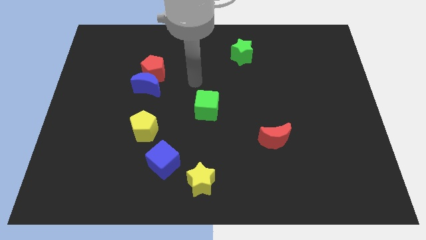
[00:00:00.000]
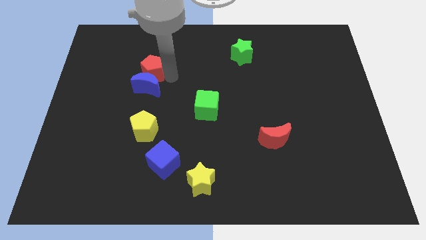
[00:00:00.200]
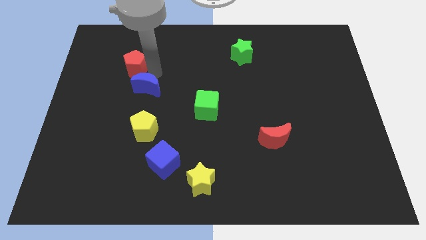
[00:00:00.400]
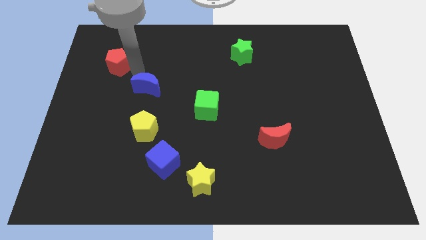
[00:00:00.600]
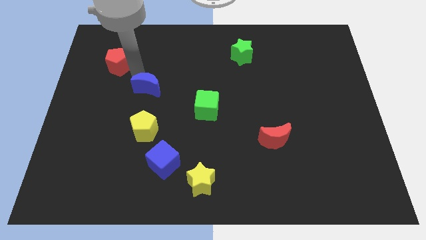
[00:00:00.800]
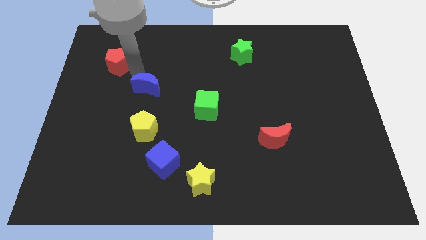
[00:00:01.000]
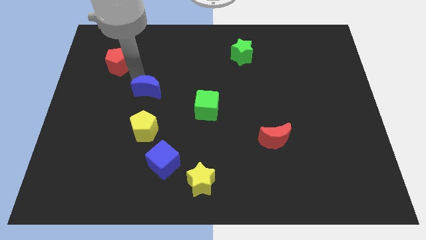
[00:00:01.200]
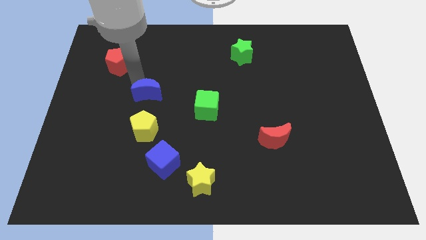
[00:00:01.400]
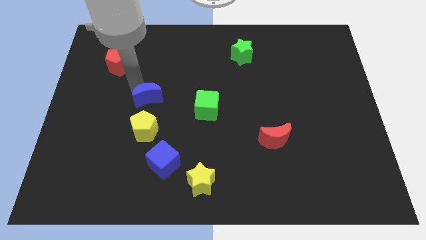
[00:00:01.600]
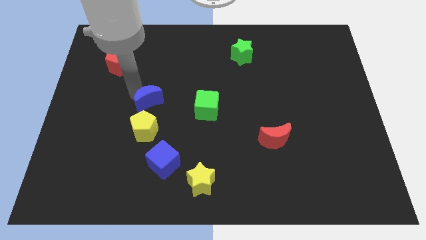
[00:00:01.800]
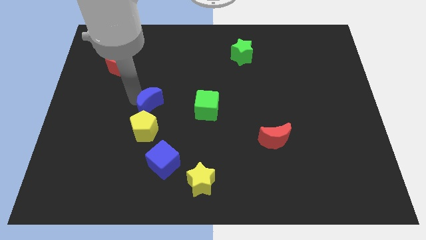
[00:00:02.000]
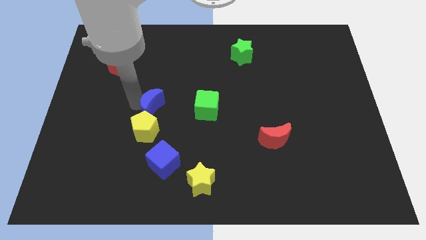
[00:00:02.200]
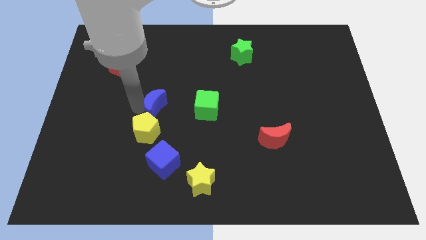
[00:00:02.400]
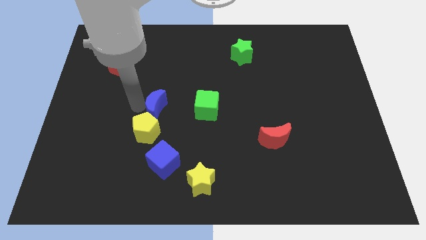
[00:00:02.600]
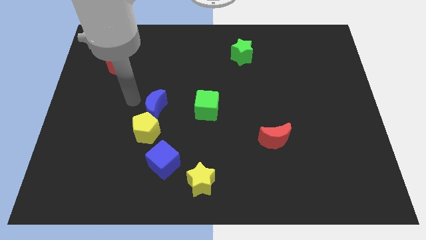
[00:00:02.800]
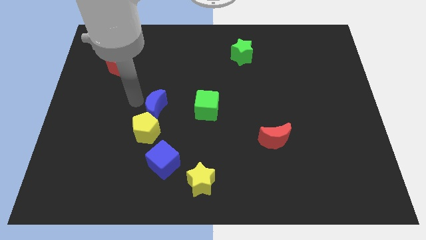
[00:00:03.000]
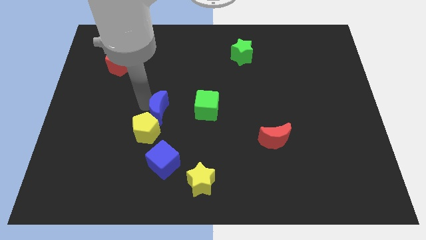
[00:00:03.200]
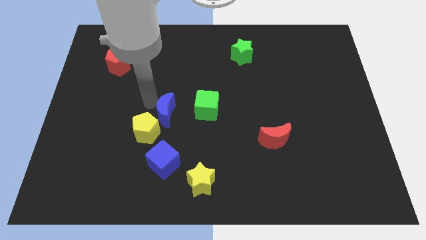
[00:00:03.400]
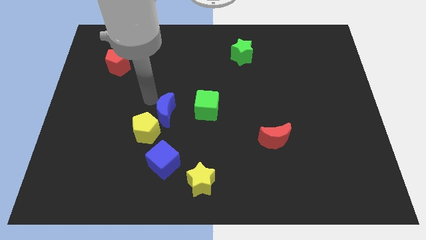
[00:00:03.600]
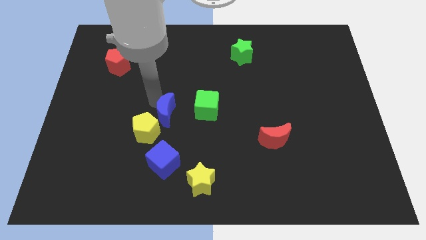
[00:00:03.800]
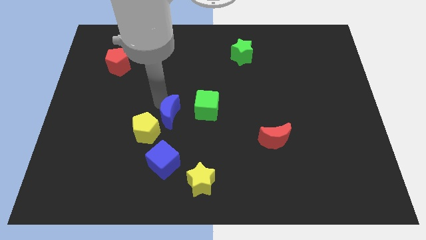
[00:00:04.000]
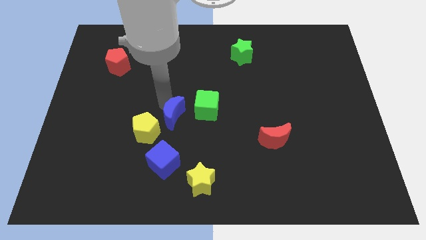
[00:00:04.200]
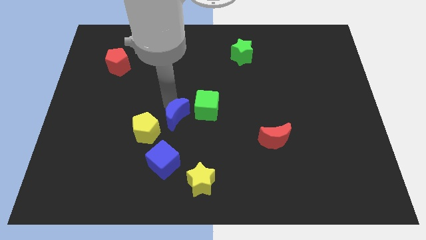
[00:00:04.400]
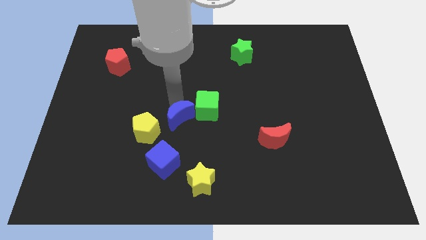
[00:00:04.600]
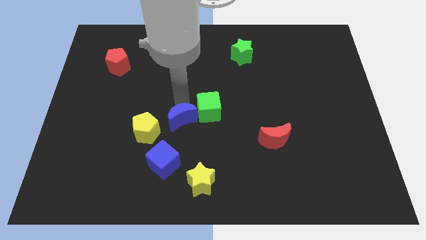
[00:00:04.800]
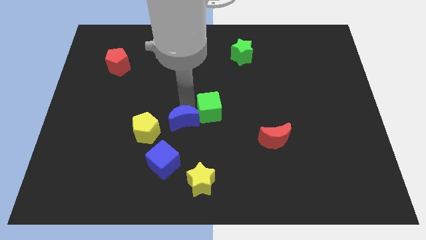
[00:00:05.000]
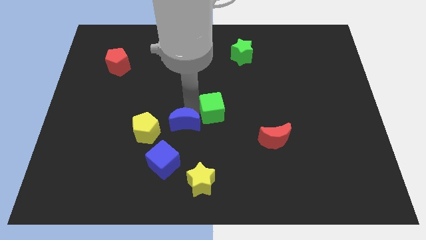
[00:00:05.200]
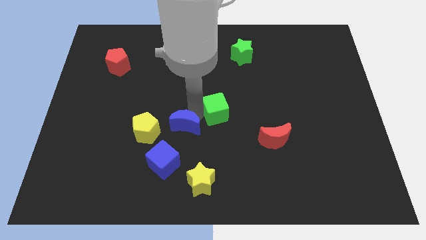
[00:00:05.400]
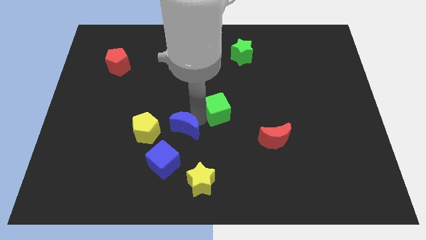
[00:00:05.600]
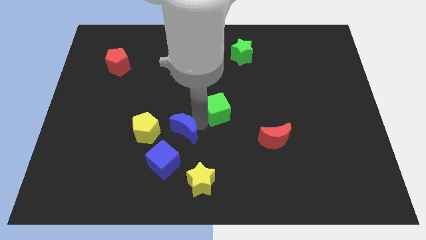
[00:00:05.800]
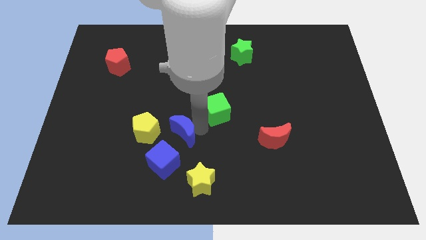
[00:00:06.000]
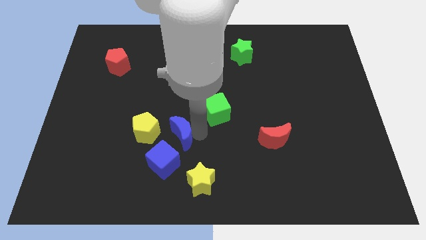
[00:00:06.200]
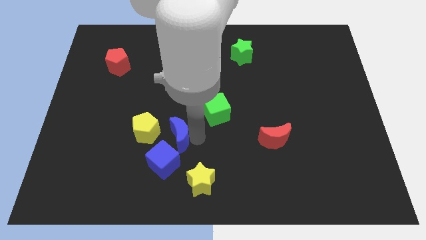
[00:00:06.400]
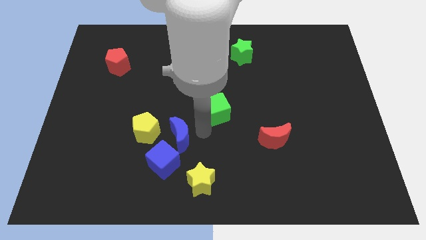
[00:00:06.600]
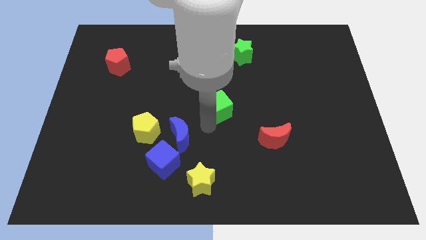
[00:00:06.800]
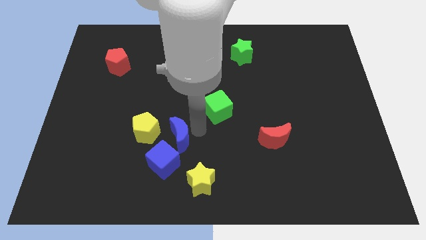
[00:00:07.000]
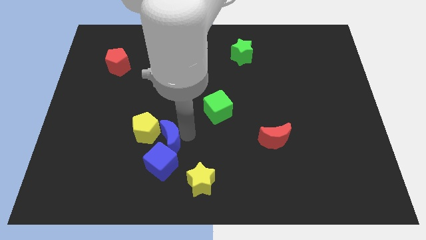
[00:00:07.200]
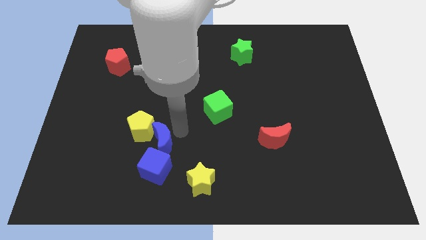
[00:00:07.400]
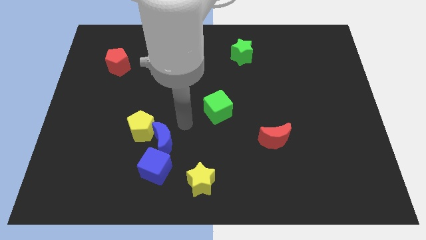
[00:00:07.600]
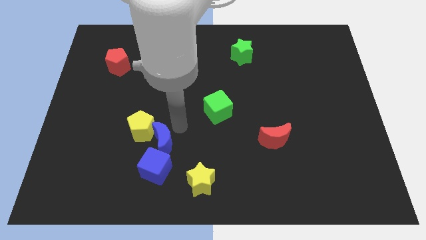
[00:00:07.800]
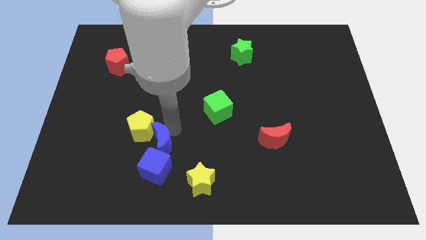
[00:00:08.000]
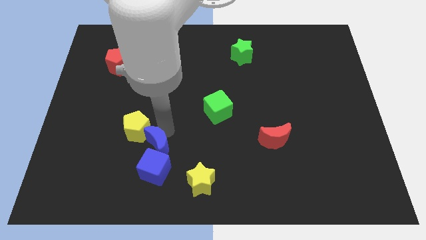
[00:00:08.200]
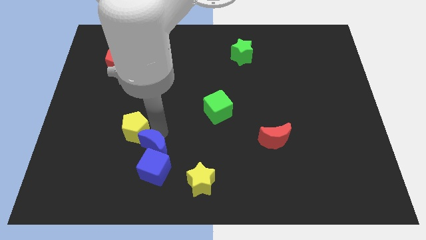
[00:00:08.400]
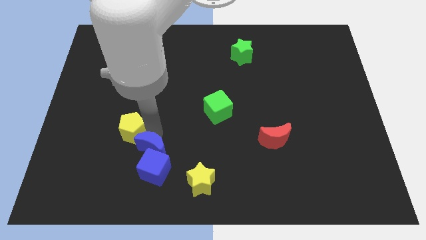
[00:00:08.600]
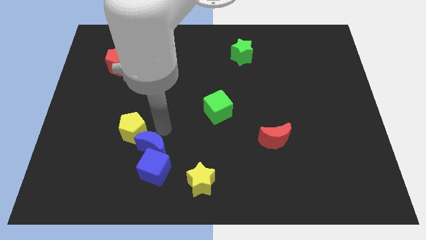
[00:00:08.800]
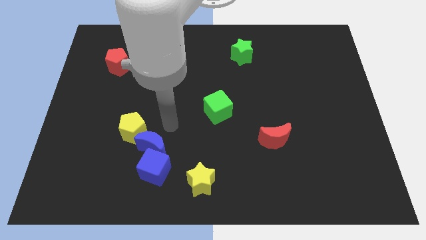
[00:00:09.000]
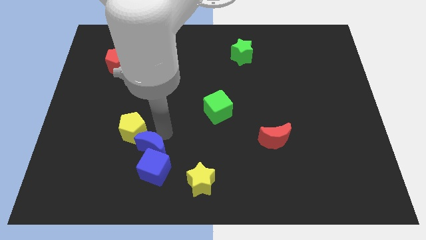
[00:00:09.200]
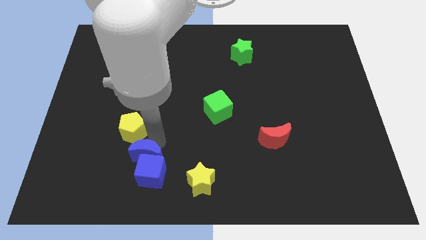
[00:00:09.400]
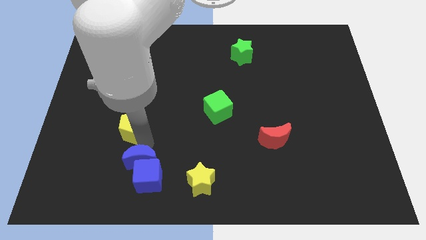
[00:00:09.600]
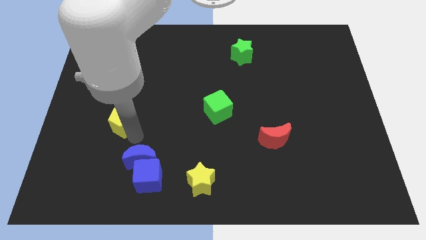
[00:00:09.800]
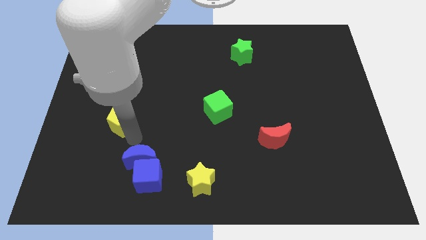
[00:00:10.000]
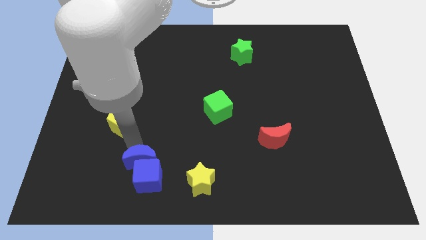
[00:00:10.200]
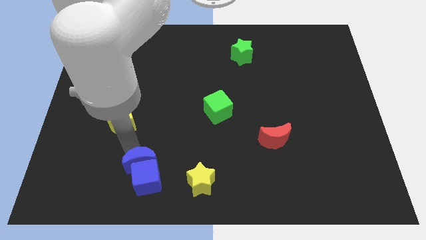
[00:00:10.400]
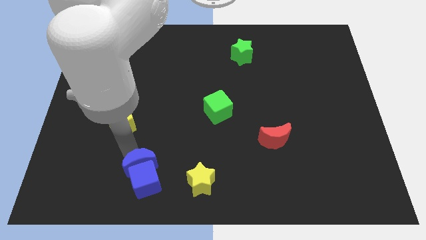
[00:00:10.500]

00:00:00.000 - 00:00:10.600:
slide the blue moon to the left side of the yellow star

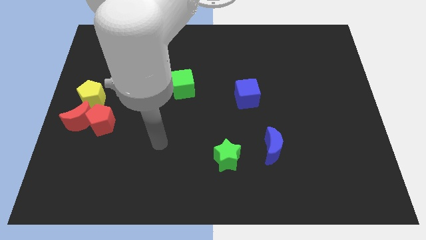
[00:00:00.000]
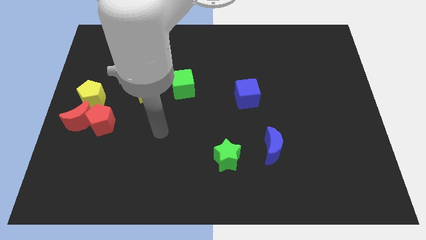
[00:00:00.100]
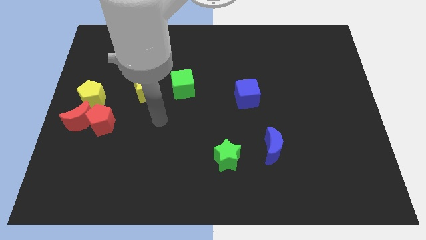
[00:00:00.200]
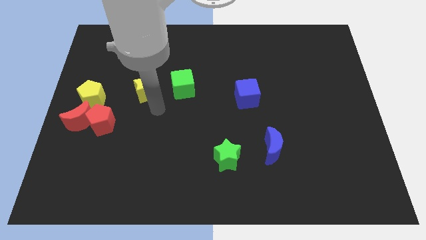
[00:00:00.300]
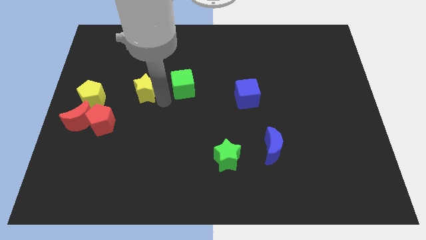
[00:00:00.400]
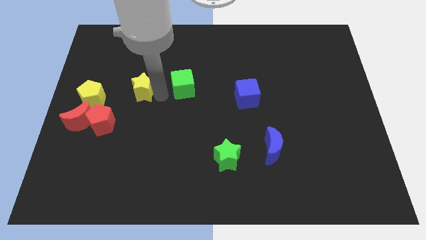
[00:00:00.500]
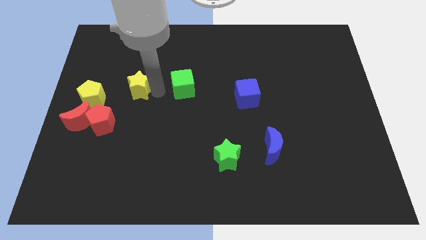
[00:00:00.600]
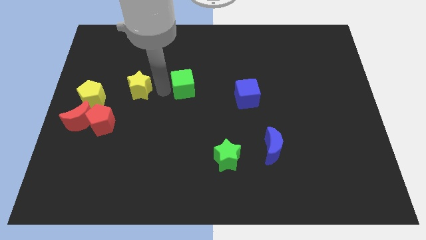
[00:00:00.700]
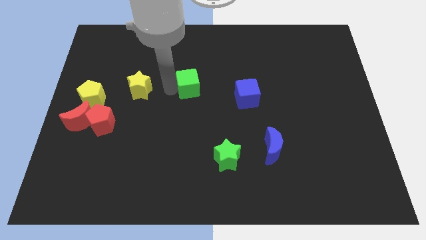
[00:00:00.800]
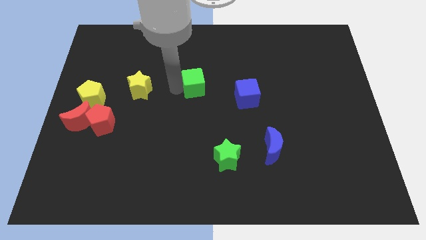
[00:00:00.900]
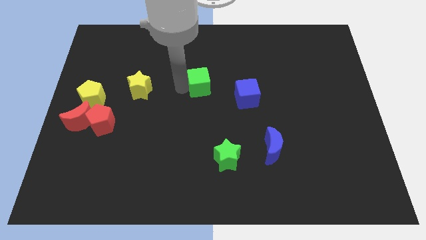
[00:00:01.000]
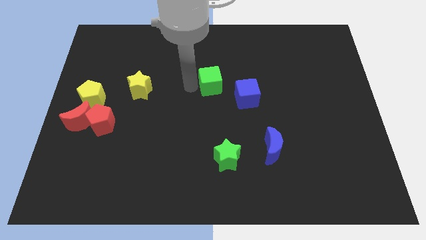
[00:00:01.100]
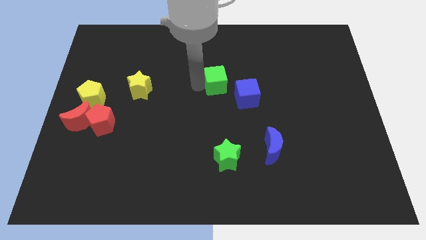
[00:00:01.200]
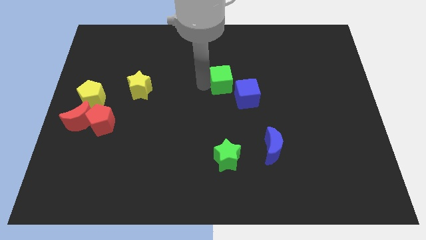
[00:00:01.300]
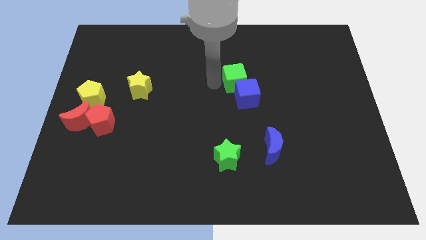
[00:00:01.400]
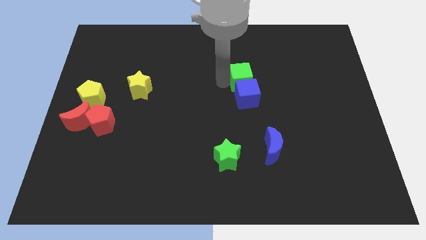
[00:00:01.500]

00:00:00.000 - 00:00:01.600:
push the green cube to the top right side of the blue cube
